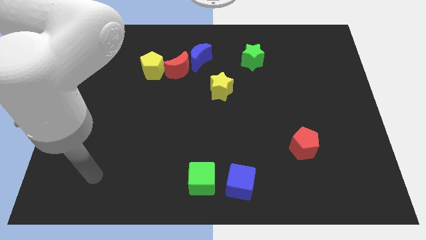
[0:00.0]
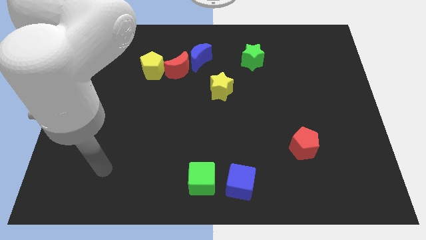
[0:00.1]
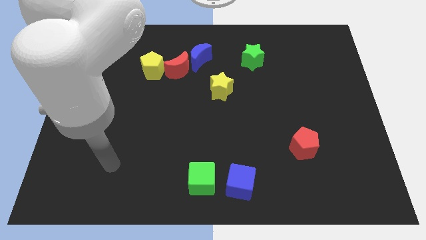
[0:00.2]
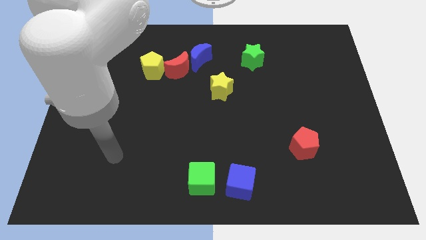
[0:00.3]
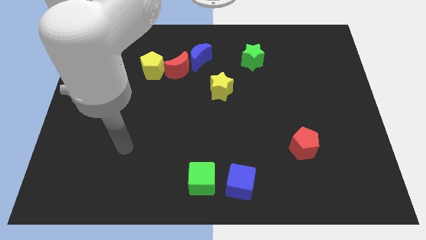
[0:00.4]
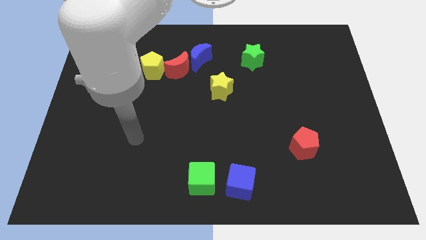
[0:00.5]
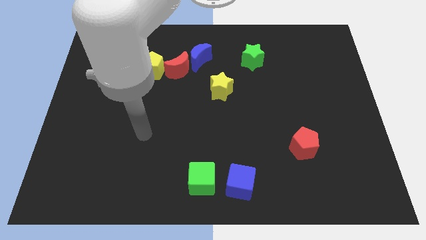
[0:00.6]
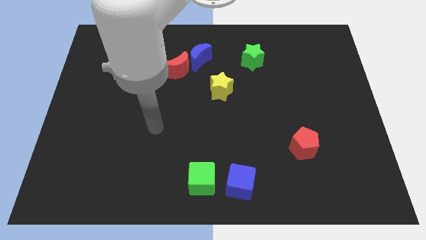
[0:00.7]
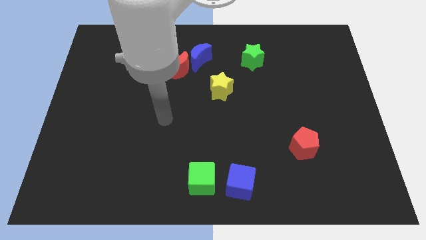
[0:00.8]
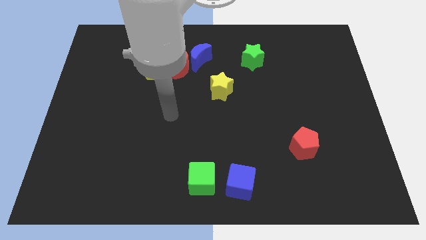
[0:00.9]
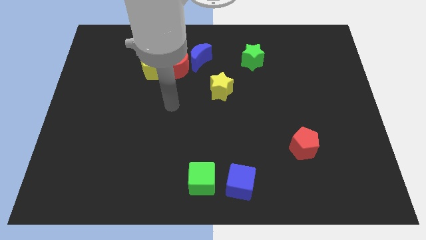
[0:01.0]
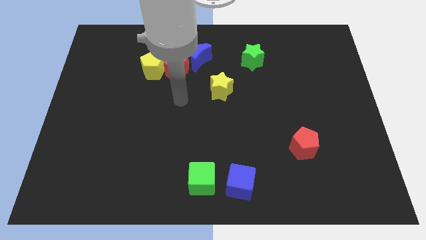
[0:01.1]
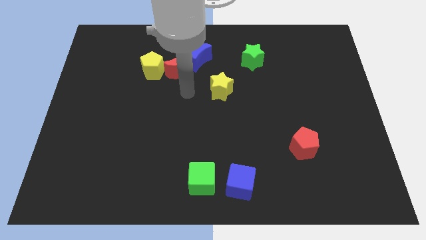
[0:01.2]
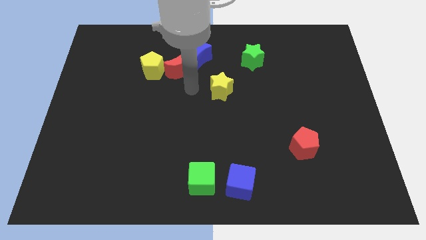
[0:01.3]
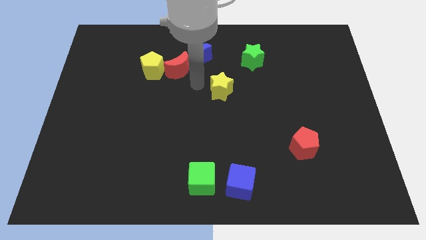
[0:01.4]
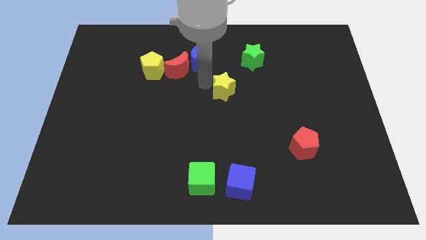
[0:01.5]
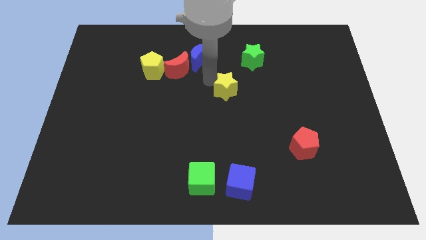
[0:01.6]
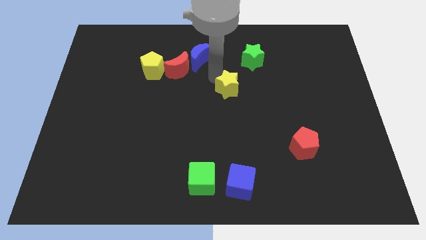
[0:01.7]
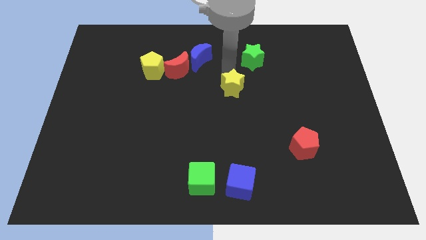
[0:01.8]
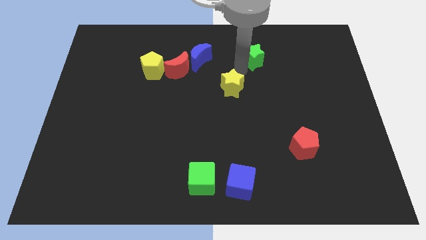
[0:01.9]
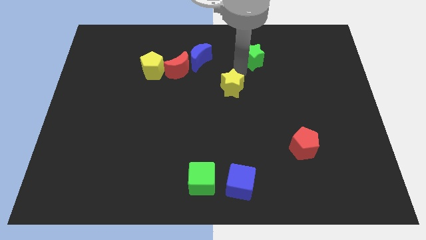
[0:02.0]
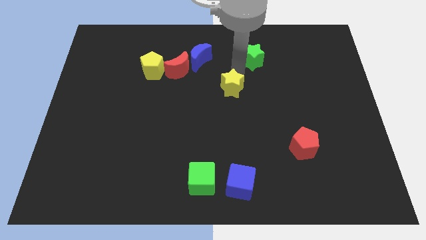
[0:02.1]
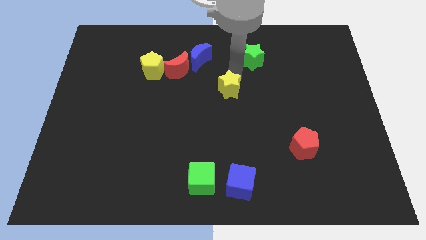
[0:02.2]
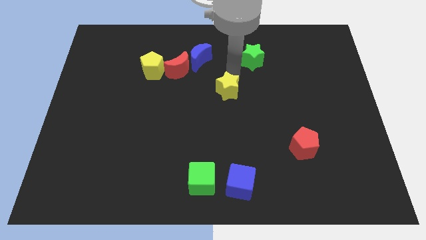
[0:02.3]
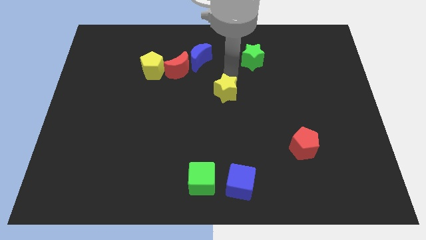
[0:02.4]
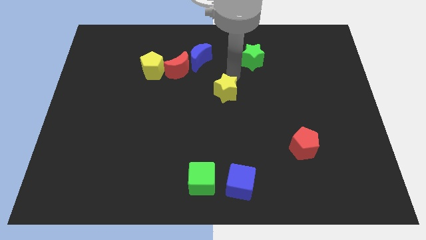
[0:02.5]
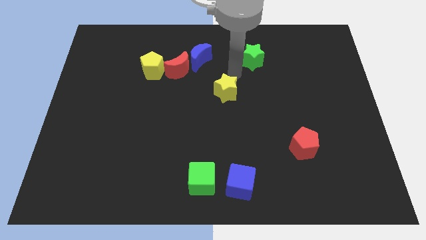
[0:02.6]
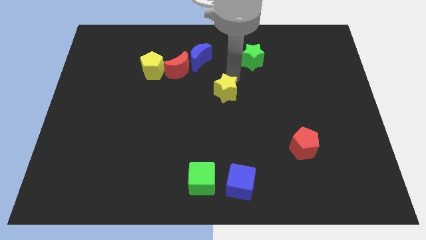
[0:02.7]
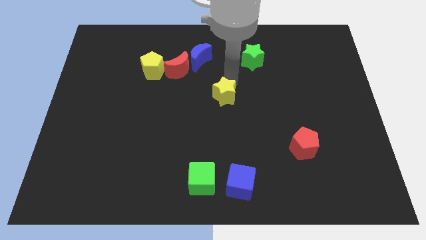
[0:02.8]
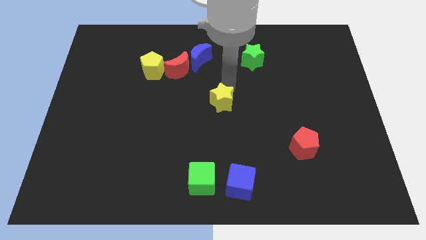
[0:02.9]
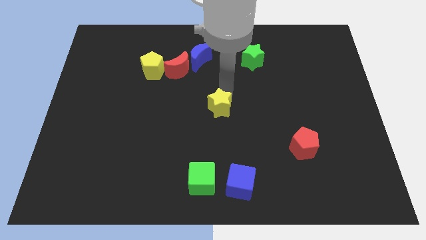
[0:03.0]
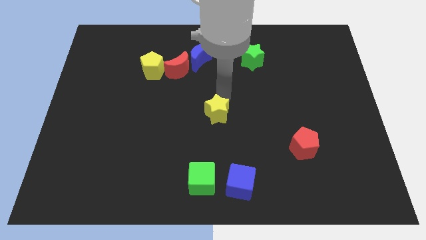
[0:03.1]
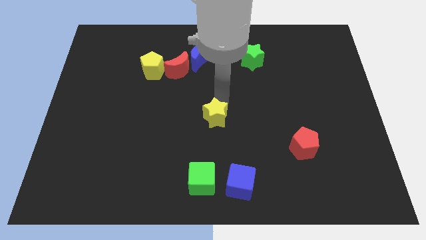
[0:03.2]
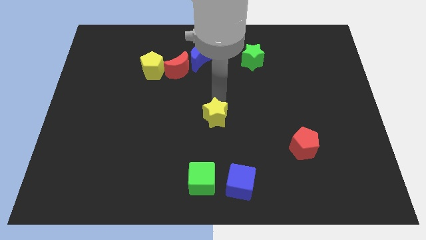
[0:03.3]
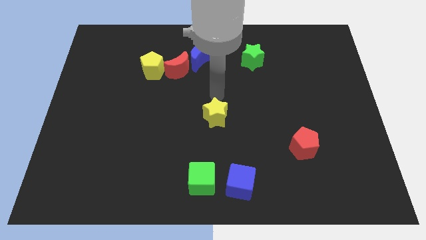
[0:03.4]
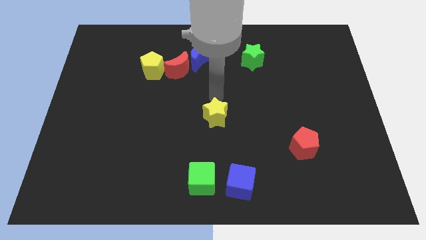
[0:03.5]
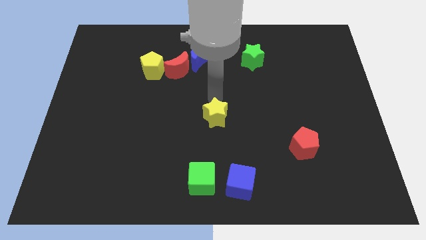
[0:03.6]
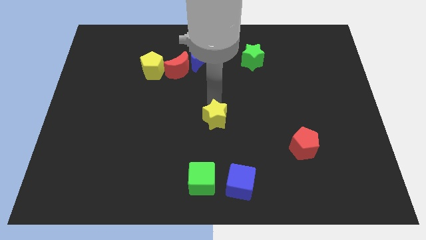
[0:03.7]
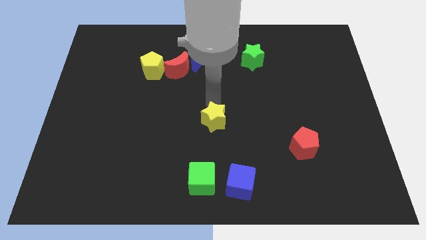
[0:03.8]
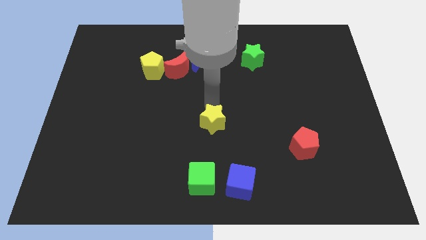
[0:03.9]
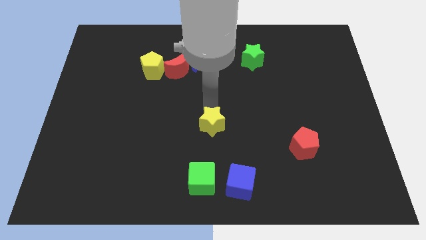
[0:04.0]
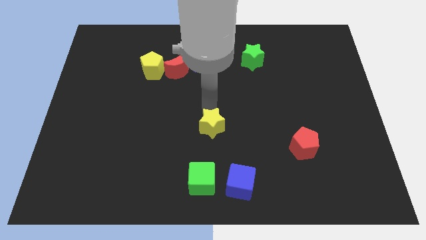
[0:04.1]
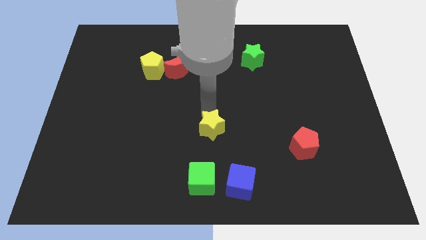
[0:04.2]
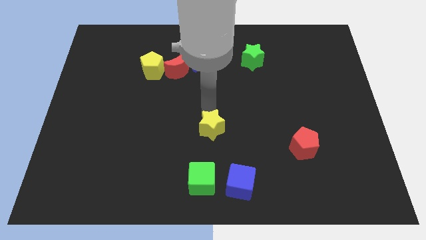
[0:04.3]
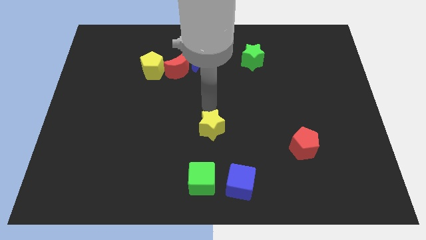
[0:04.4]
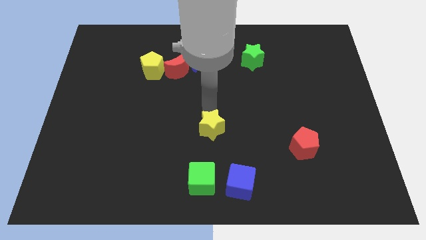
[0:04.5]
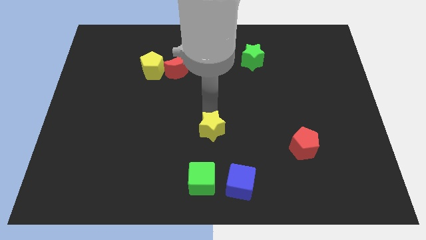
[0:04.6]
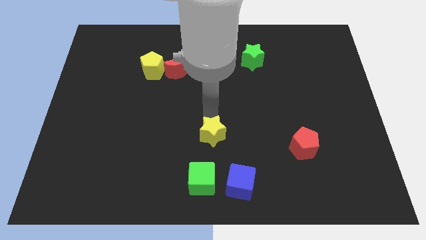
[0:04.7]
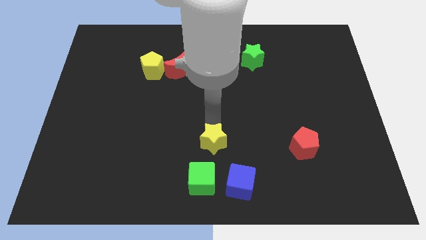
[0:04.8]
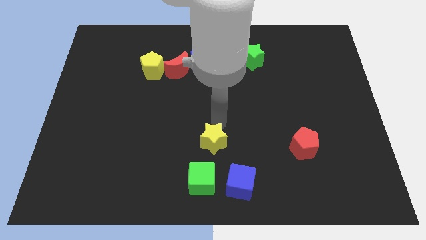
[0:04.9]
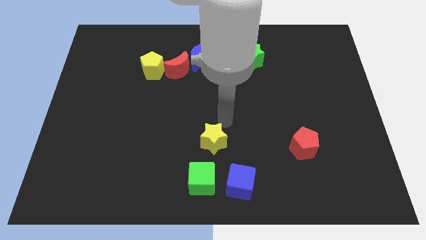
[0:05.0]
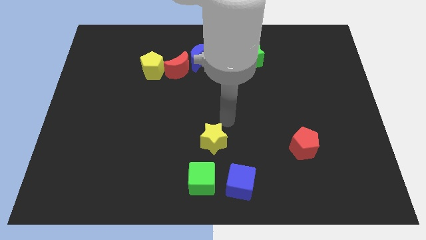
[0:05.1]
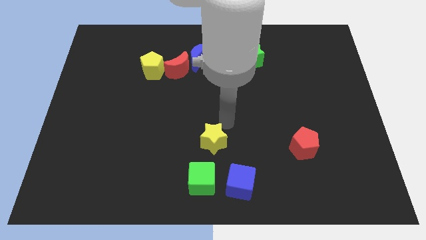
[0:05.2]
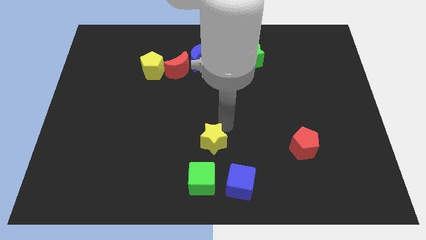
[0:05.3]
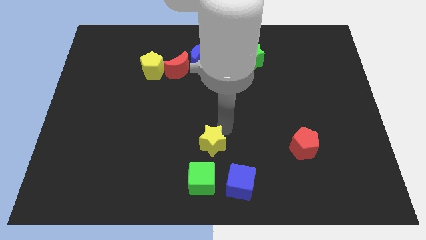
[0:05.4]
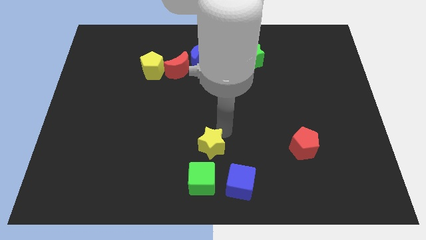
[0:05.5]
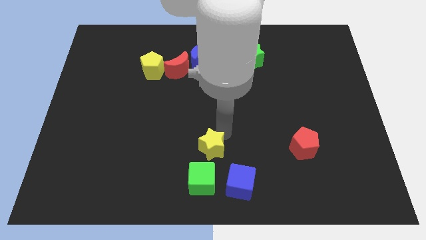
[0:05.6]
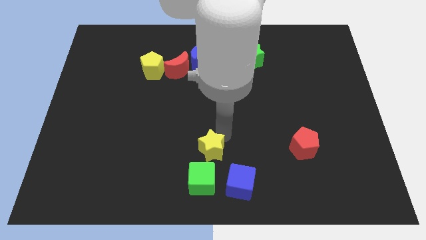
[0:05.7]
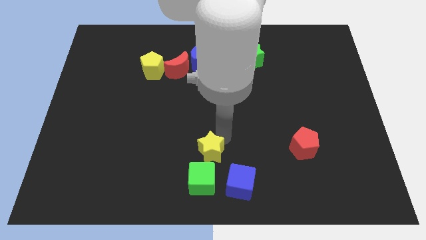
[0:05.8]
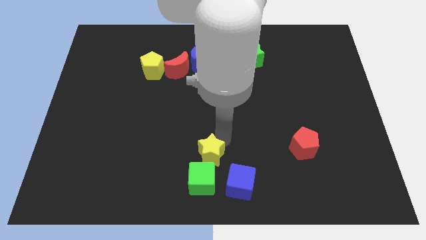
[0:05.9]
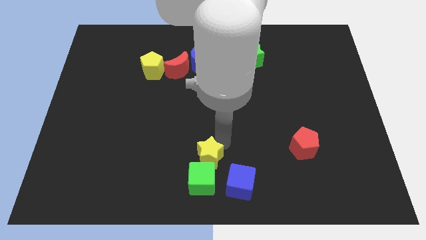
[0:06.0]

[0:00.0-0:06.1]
slide the yellow star close to the green cube

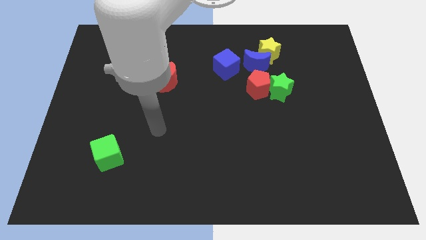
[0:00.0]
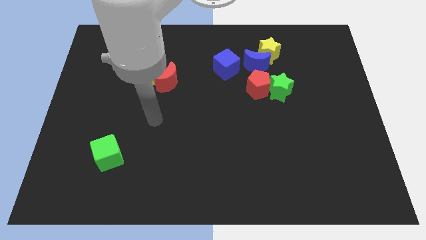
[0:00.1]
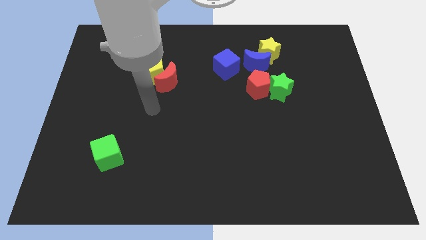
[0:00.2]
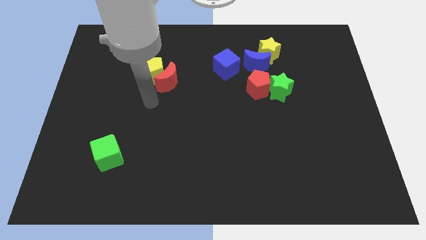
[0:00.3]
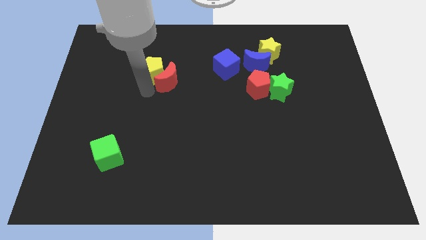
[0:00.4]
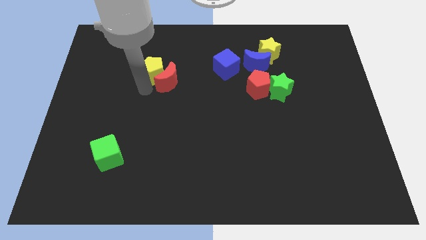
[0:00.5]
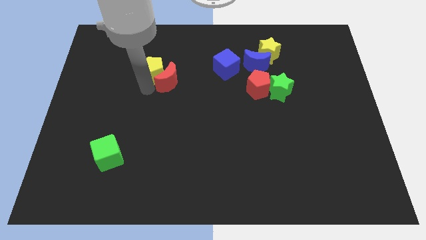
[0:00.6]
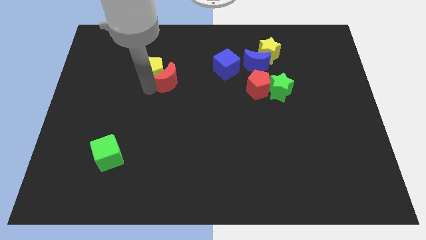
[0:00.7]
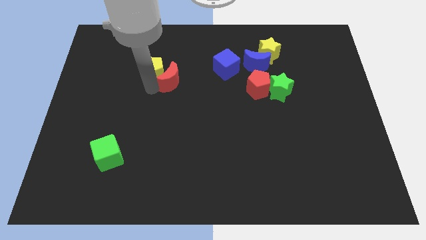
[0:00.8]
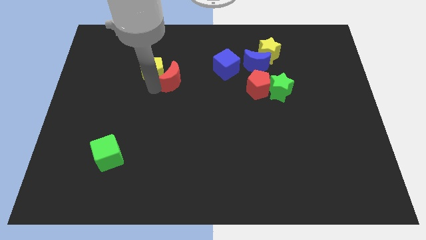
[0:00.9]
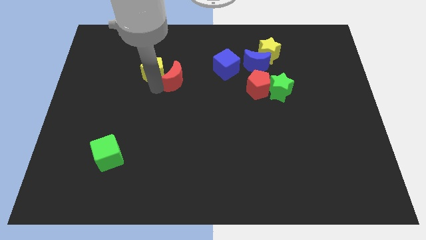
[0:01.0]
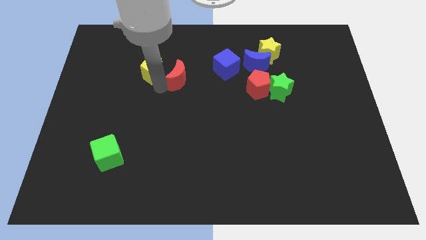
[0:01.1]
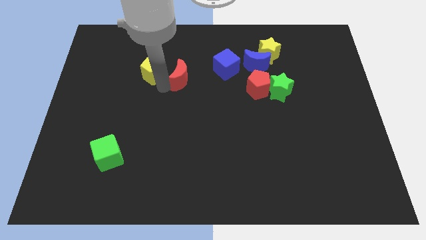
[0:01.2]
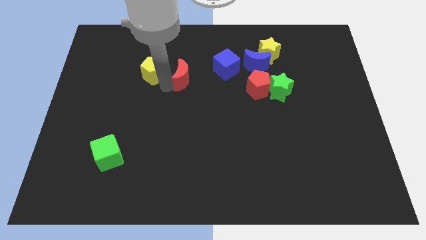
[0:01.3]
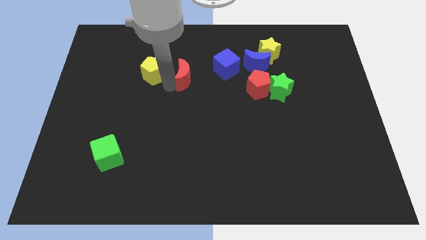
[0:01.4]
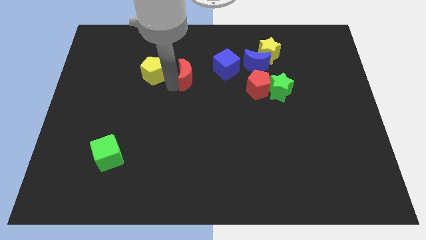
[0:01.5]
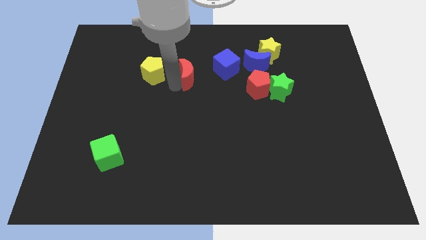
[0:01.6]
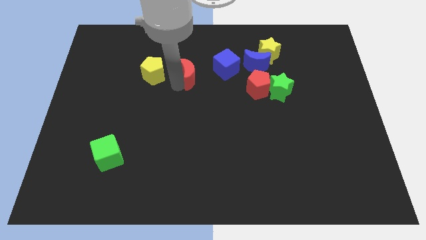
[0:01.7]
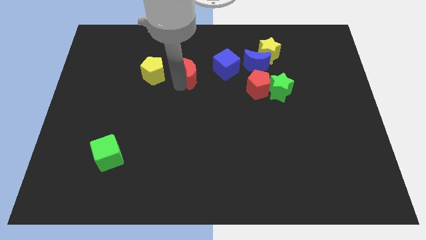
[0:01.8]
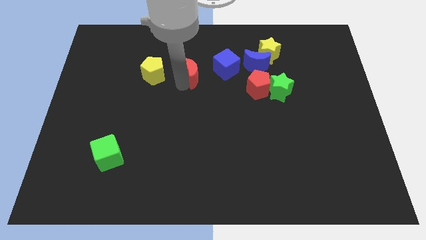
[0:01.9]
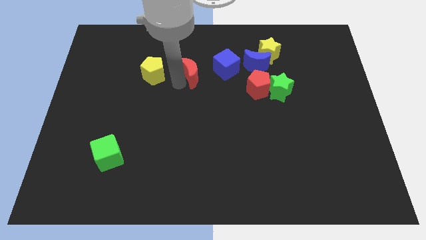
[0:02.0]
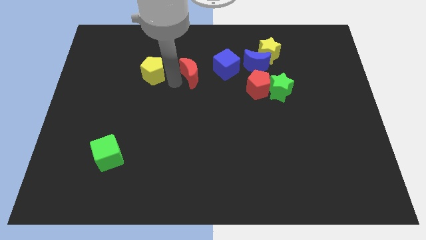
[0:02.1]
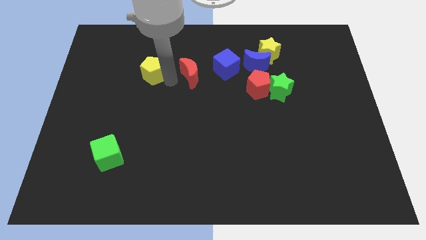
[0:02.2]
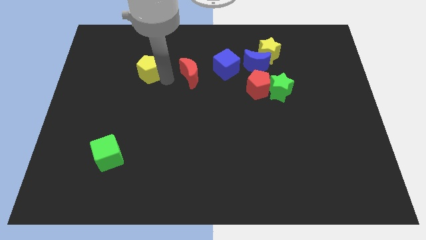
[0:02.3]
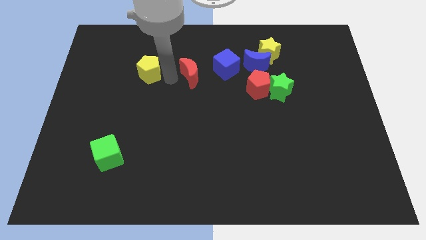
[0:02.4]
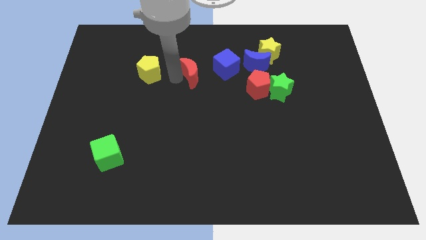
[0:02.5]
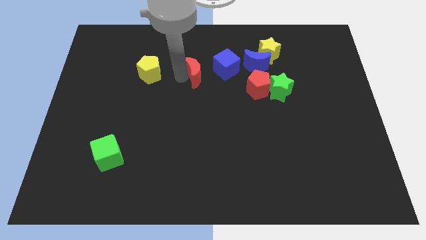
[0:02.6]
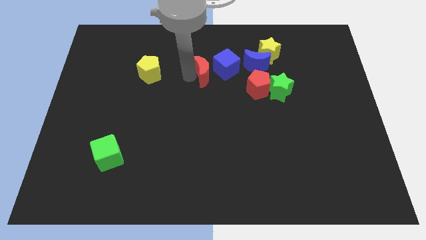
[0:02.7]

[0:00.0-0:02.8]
push the red moon towards the blue cube
